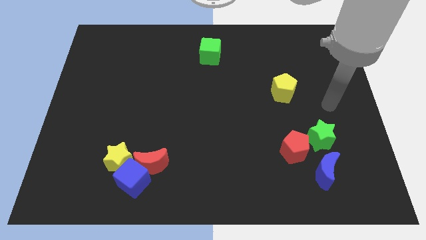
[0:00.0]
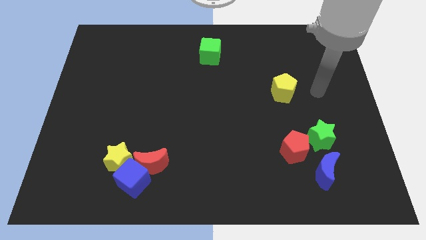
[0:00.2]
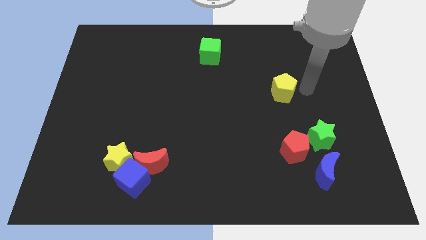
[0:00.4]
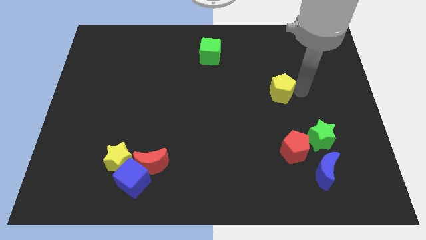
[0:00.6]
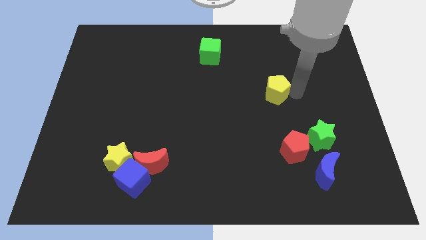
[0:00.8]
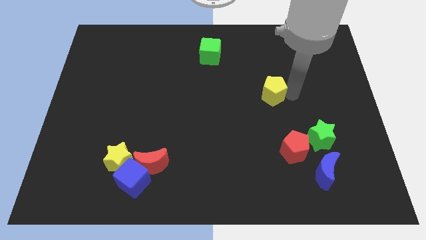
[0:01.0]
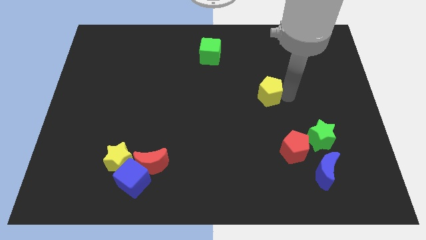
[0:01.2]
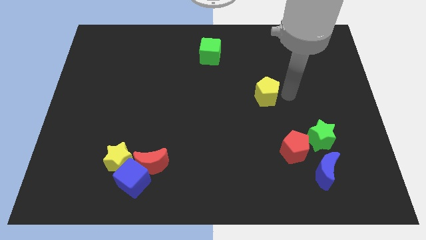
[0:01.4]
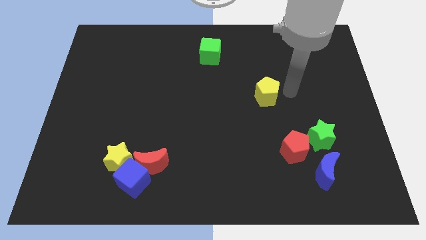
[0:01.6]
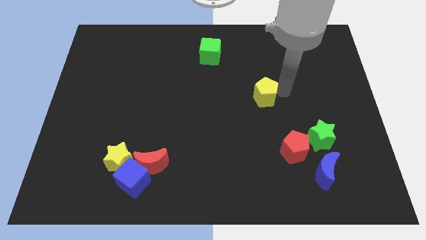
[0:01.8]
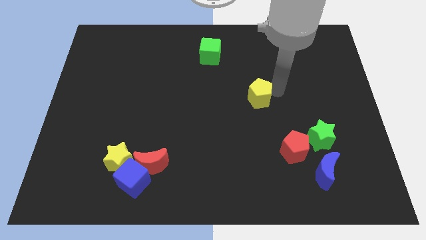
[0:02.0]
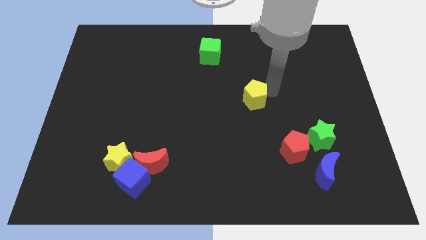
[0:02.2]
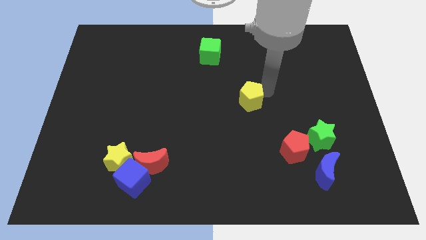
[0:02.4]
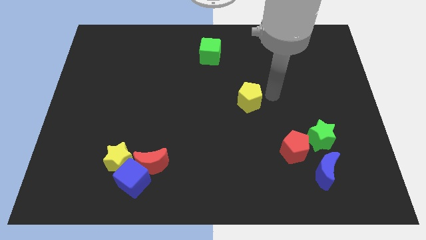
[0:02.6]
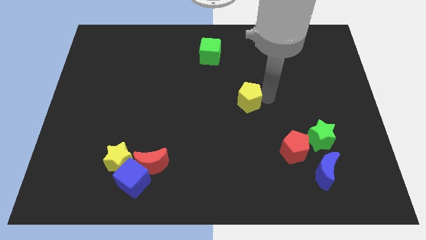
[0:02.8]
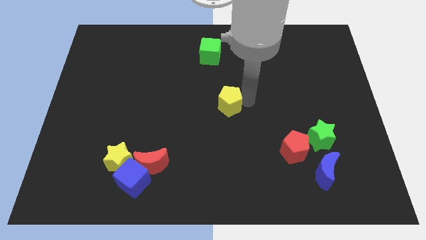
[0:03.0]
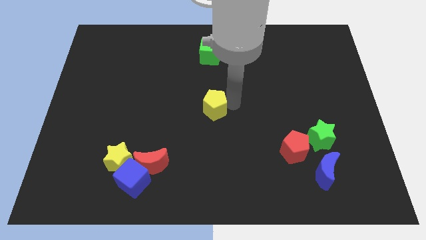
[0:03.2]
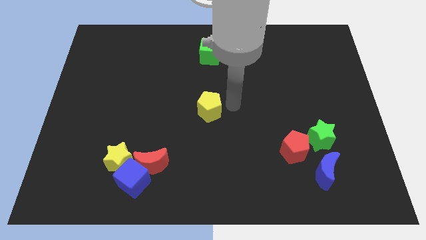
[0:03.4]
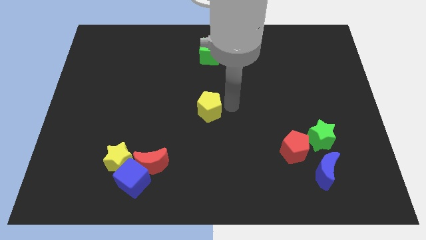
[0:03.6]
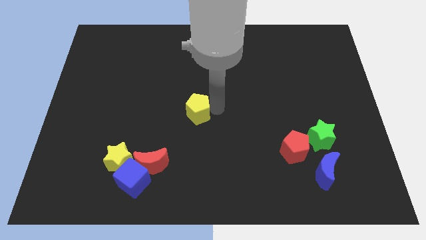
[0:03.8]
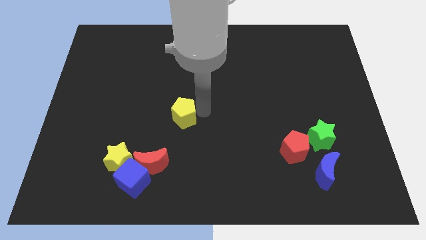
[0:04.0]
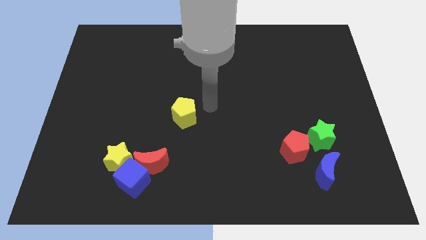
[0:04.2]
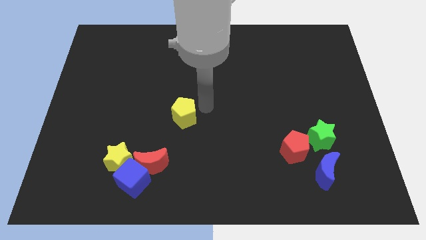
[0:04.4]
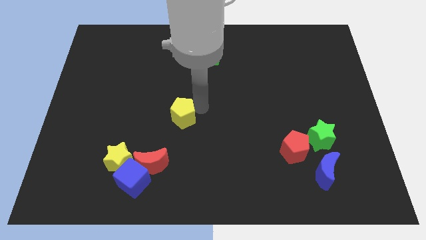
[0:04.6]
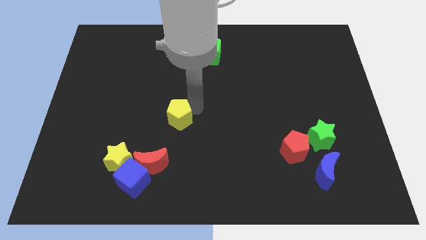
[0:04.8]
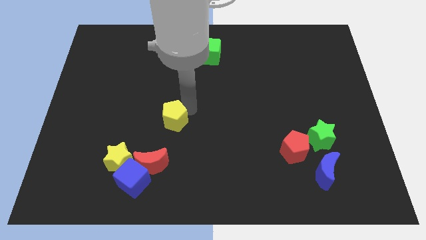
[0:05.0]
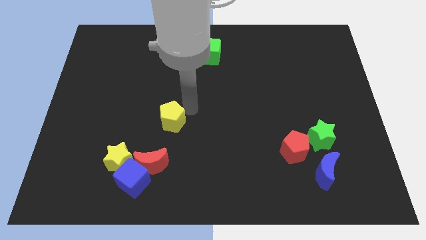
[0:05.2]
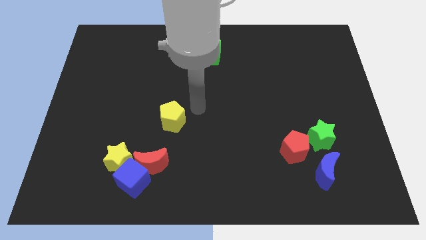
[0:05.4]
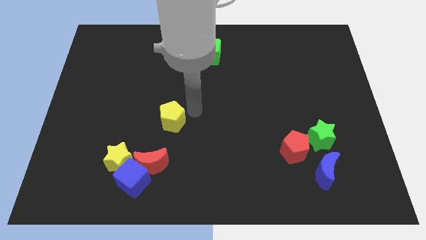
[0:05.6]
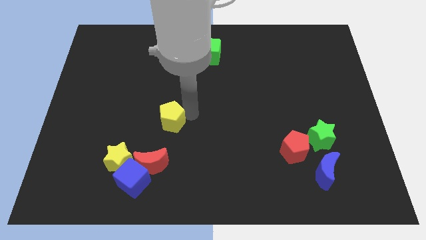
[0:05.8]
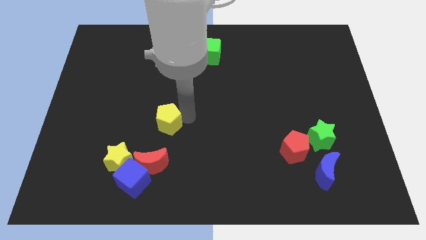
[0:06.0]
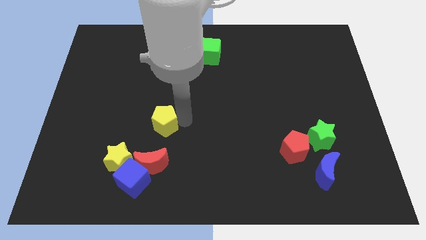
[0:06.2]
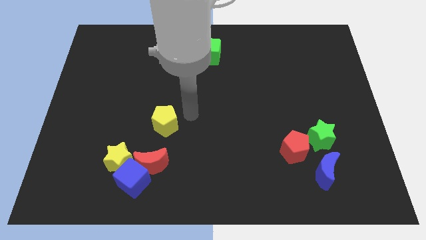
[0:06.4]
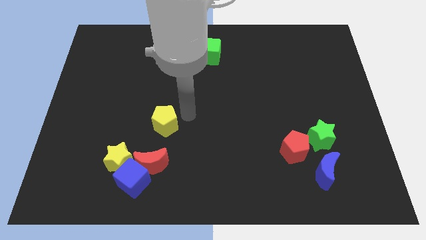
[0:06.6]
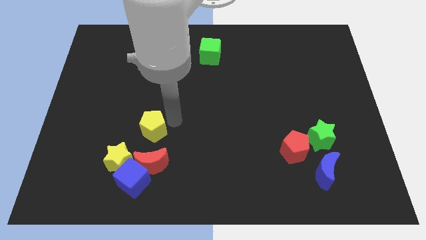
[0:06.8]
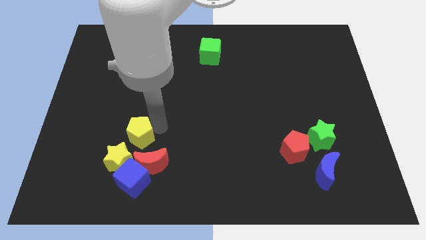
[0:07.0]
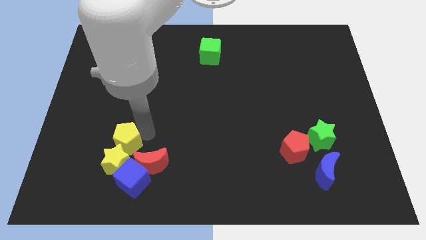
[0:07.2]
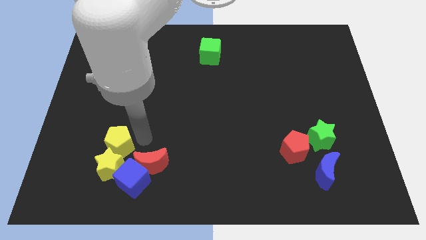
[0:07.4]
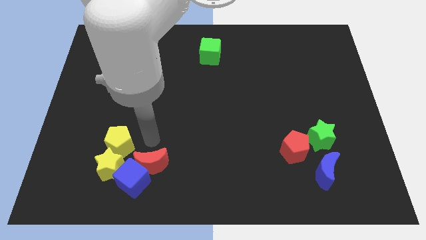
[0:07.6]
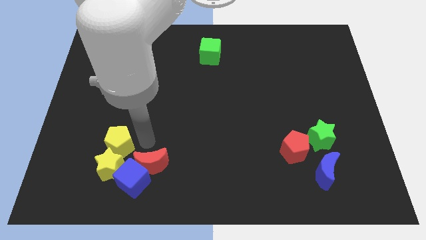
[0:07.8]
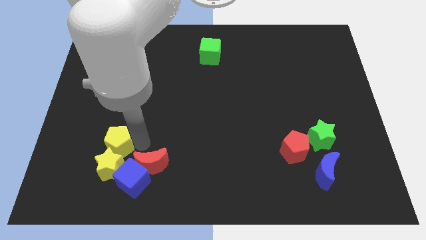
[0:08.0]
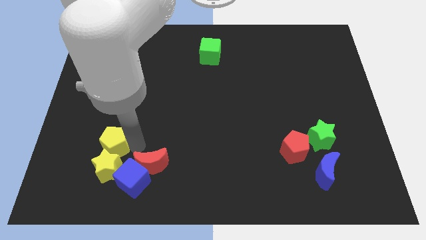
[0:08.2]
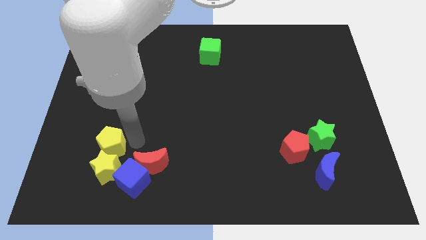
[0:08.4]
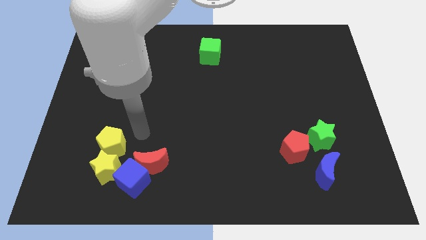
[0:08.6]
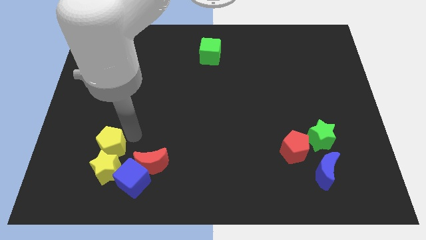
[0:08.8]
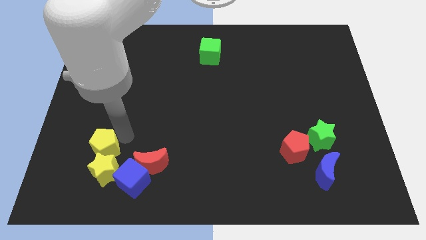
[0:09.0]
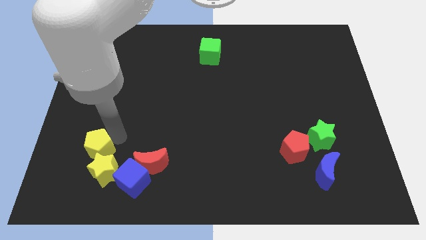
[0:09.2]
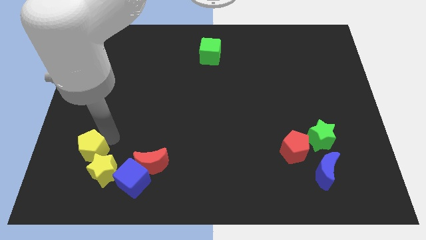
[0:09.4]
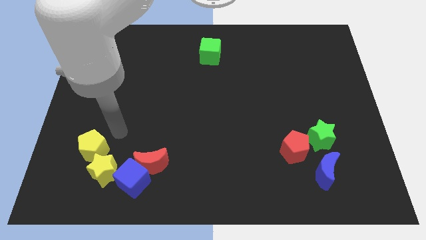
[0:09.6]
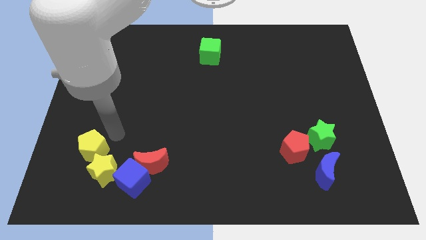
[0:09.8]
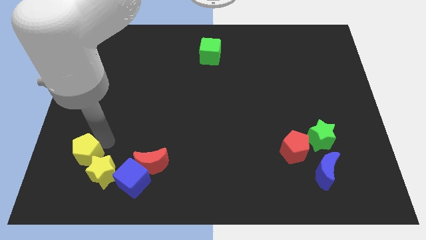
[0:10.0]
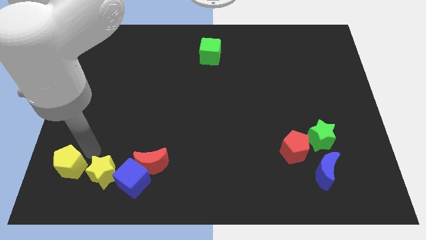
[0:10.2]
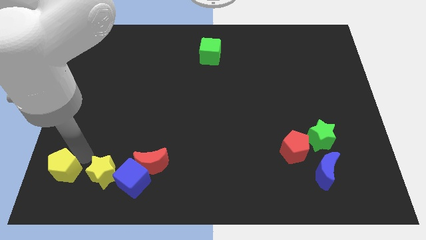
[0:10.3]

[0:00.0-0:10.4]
put the yellow pentagon to the lower left corner
